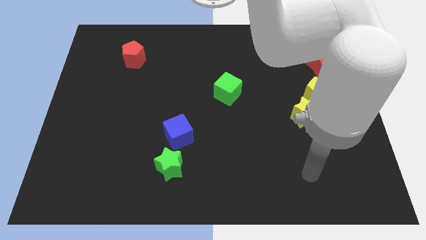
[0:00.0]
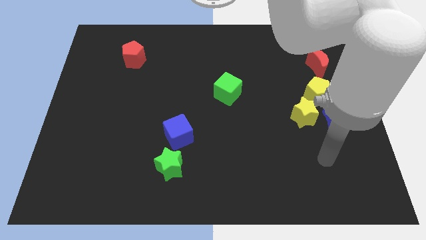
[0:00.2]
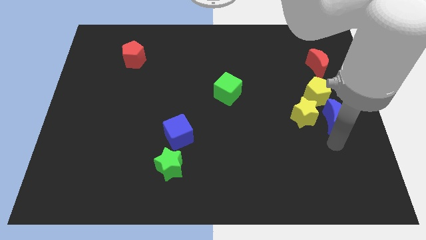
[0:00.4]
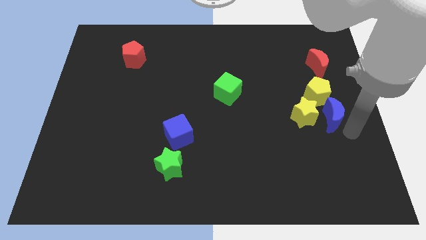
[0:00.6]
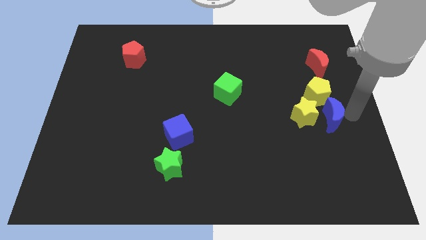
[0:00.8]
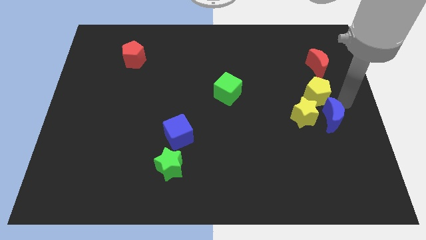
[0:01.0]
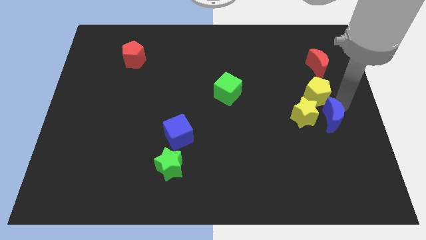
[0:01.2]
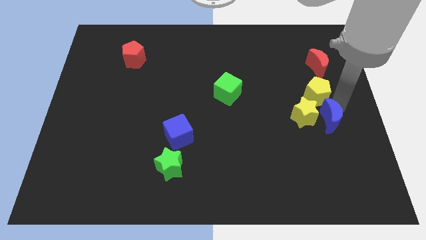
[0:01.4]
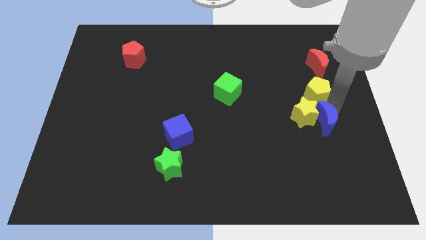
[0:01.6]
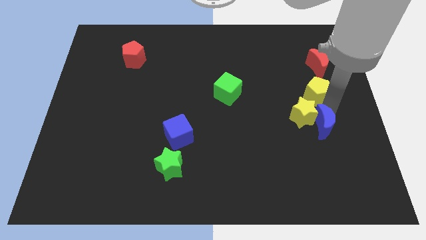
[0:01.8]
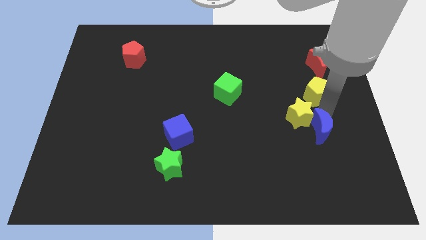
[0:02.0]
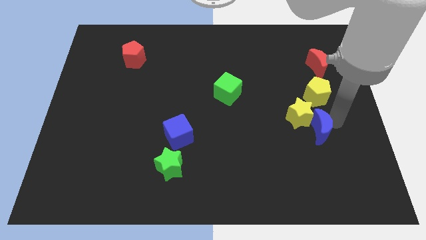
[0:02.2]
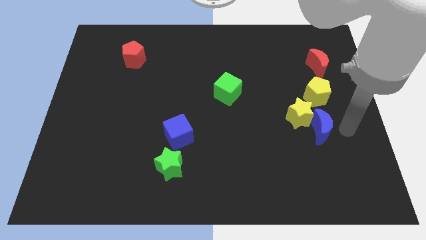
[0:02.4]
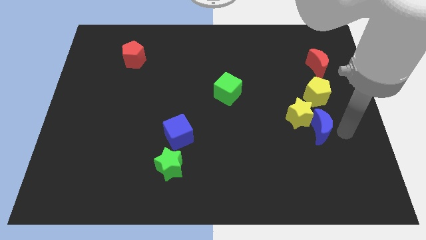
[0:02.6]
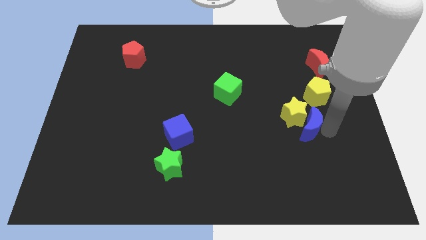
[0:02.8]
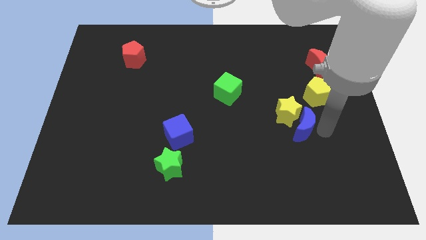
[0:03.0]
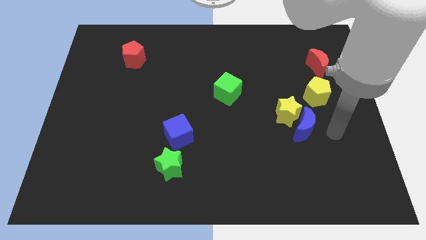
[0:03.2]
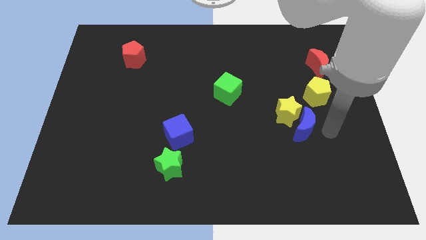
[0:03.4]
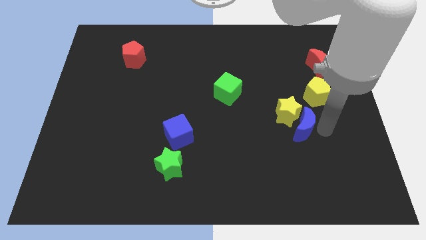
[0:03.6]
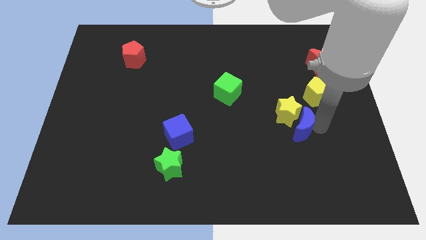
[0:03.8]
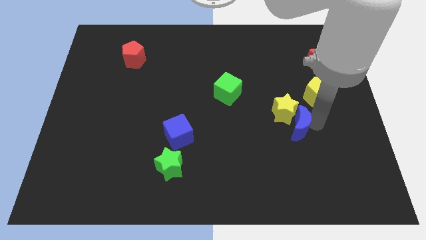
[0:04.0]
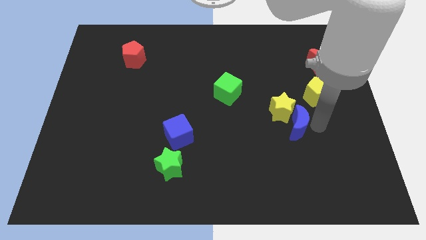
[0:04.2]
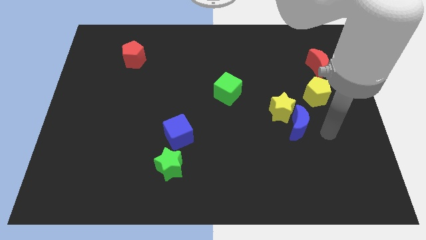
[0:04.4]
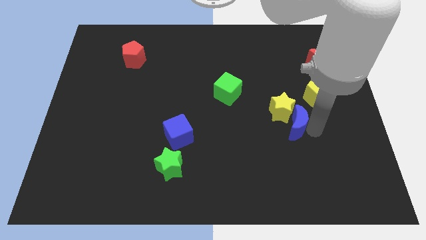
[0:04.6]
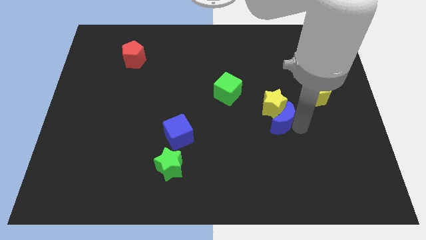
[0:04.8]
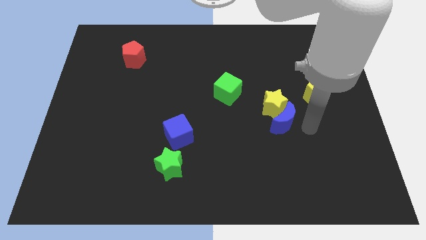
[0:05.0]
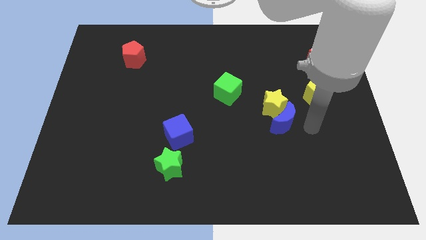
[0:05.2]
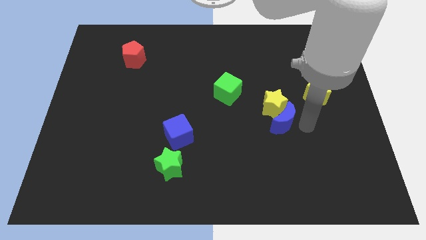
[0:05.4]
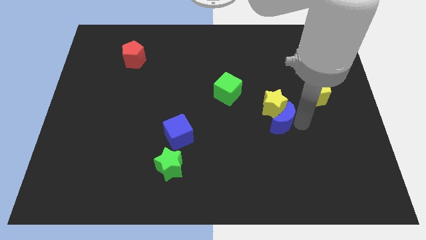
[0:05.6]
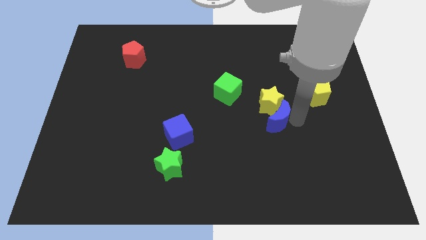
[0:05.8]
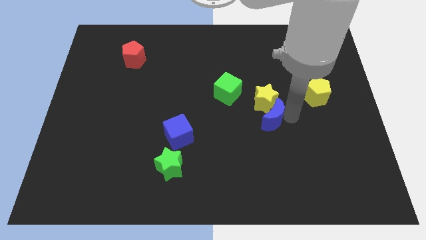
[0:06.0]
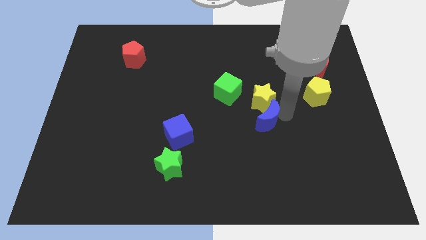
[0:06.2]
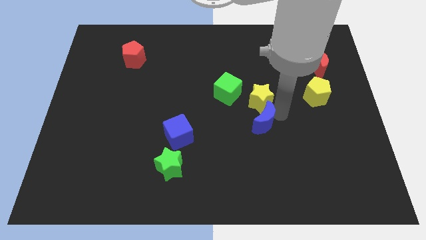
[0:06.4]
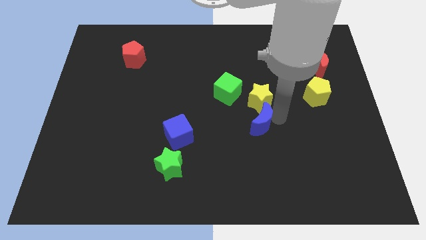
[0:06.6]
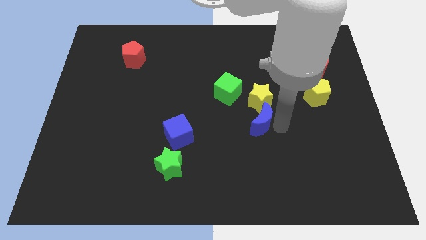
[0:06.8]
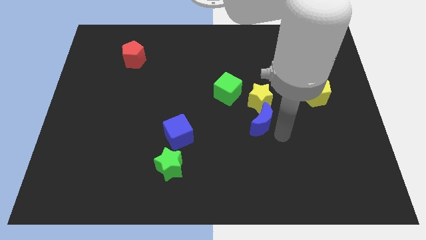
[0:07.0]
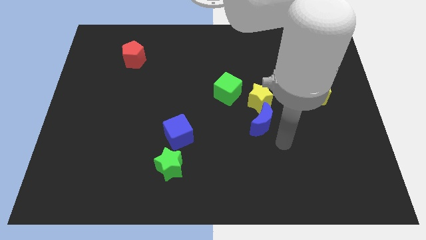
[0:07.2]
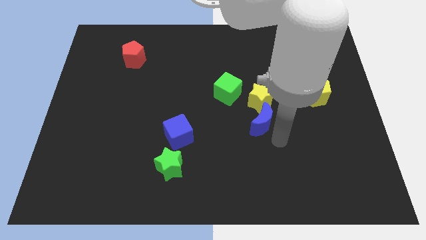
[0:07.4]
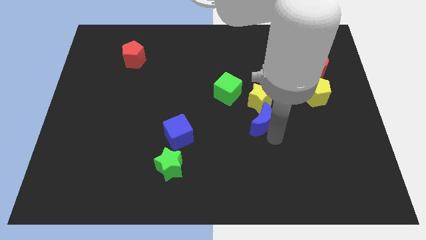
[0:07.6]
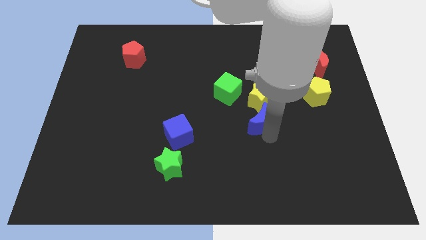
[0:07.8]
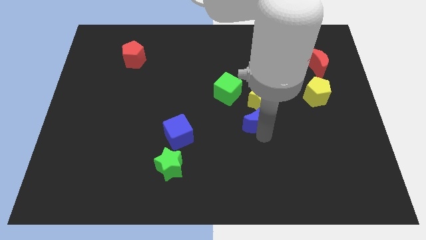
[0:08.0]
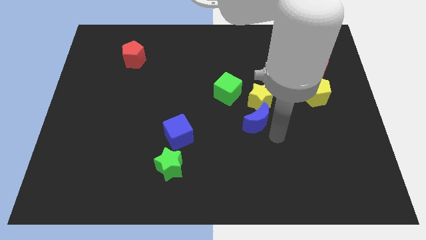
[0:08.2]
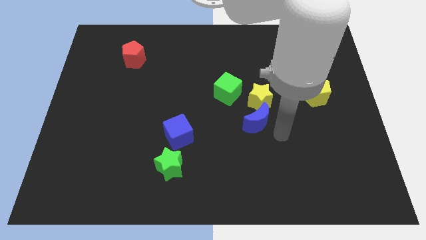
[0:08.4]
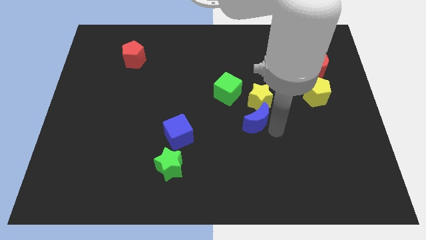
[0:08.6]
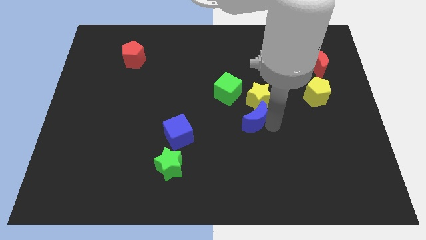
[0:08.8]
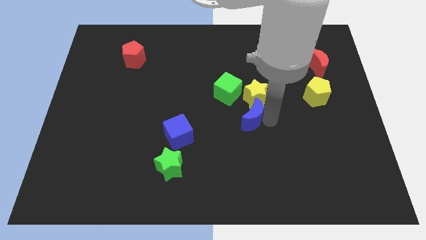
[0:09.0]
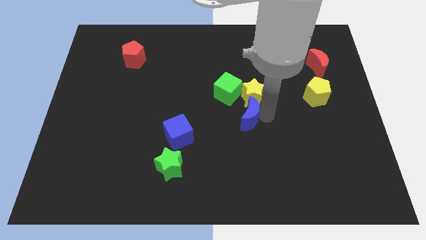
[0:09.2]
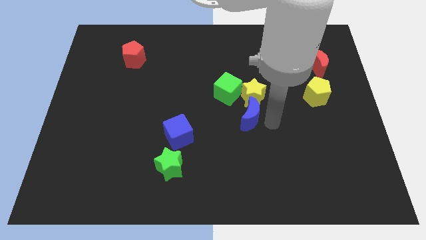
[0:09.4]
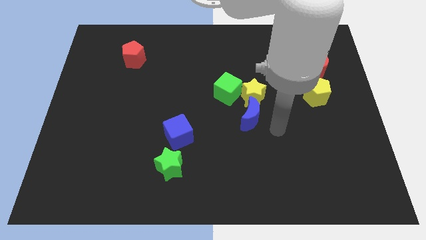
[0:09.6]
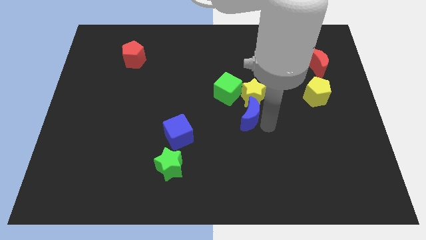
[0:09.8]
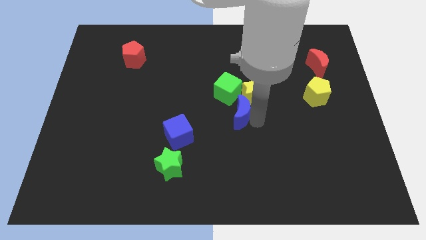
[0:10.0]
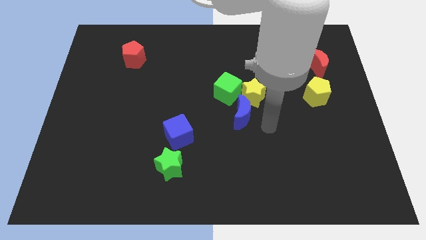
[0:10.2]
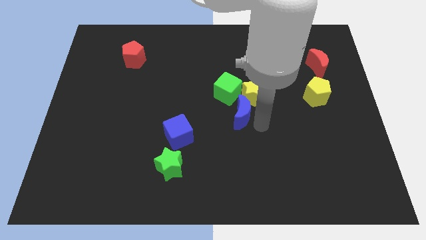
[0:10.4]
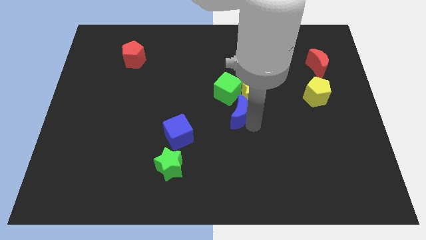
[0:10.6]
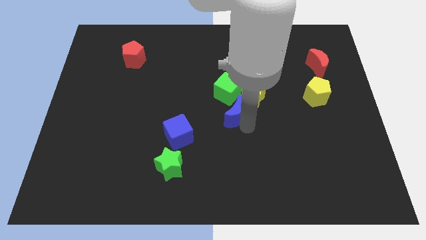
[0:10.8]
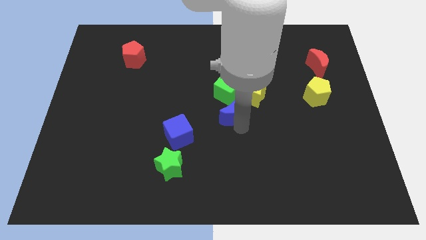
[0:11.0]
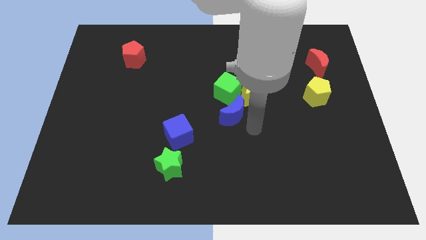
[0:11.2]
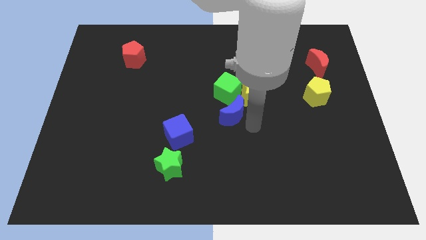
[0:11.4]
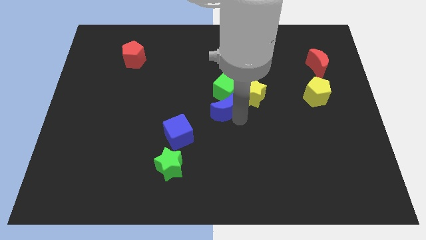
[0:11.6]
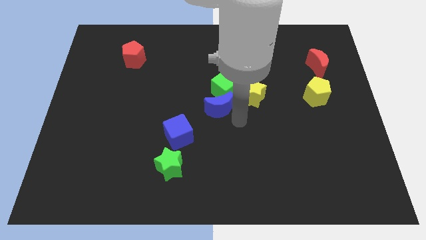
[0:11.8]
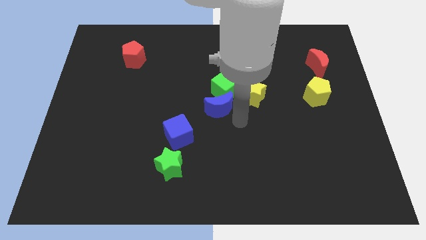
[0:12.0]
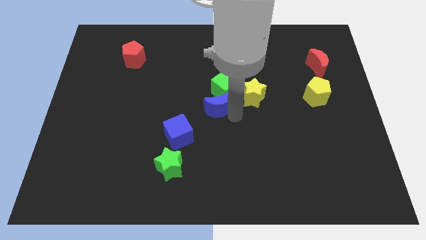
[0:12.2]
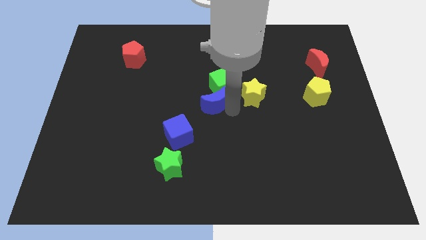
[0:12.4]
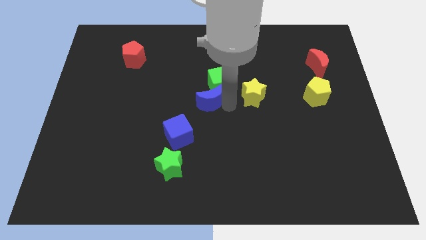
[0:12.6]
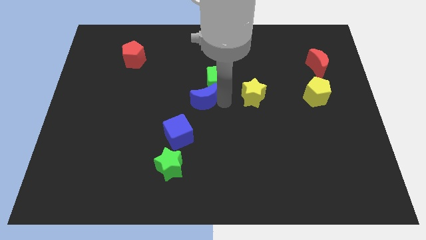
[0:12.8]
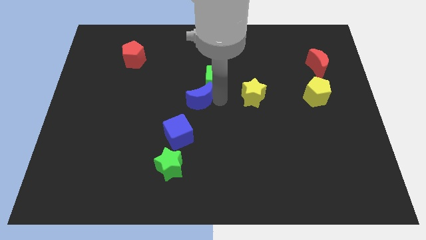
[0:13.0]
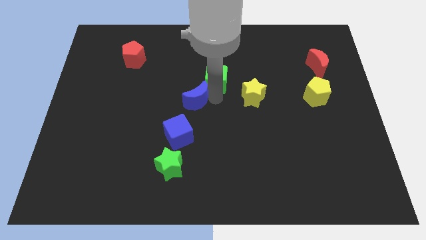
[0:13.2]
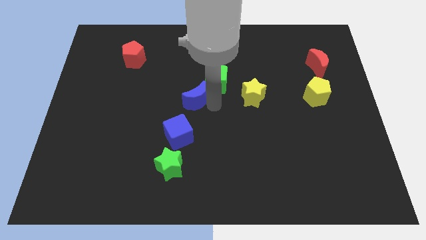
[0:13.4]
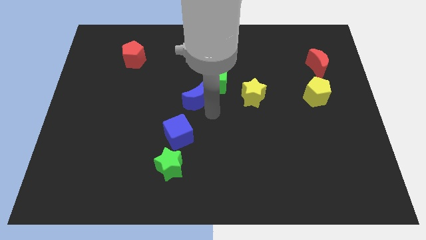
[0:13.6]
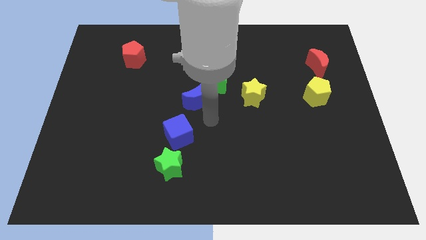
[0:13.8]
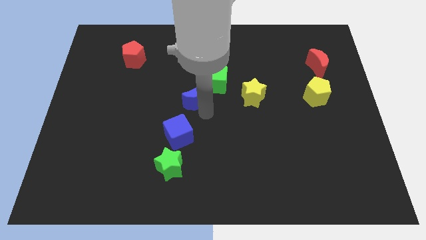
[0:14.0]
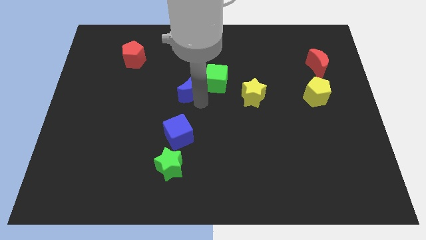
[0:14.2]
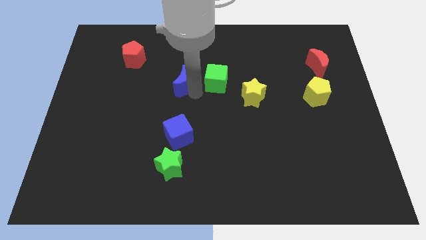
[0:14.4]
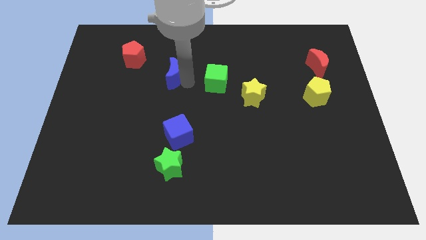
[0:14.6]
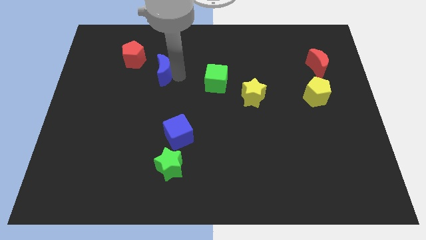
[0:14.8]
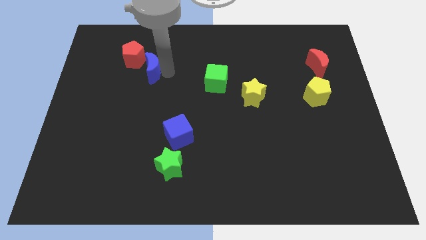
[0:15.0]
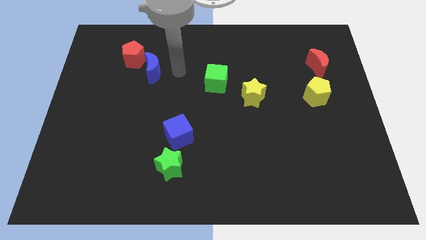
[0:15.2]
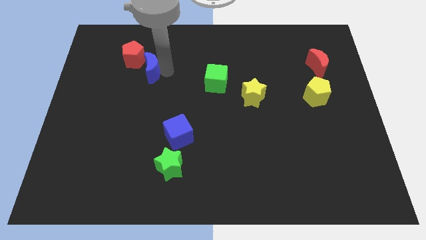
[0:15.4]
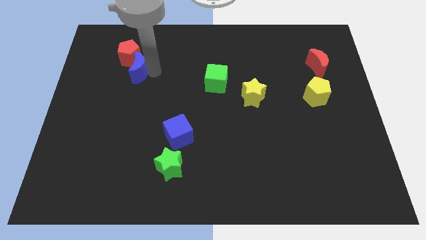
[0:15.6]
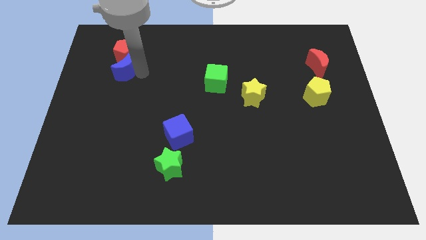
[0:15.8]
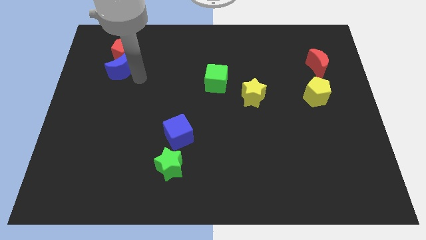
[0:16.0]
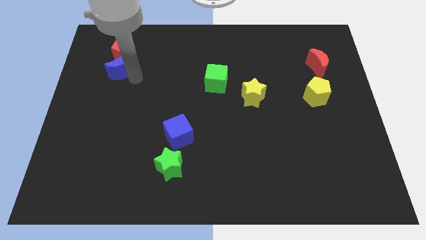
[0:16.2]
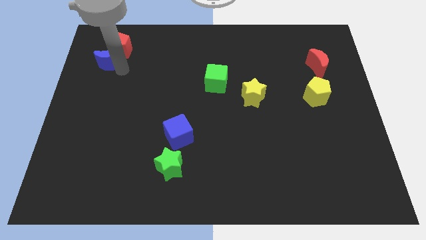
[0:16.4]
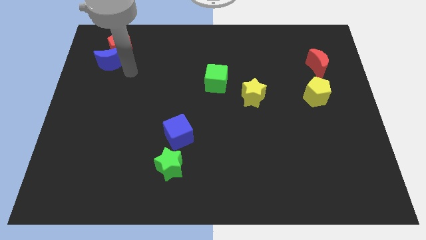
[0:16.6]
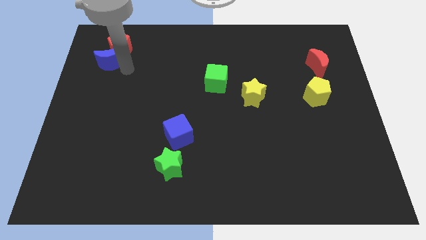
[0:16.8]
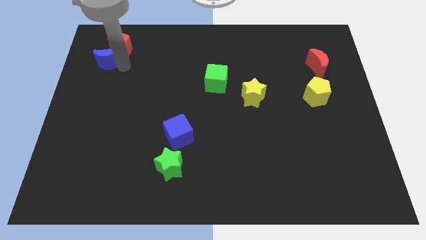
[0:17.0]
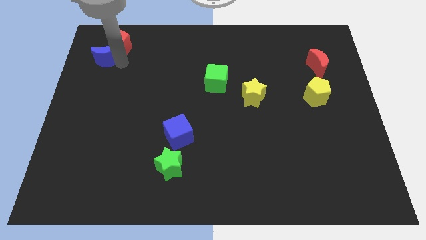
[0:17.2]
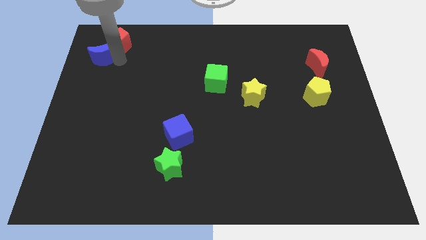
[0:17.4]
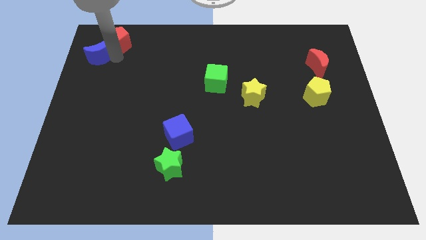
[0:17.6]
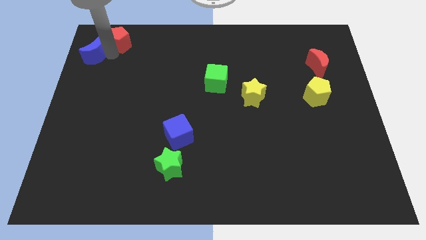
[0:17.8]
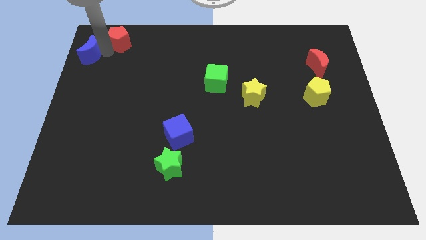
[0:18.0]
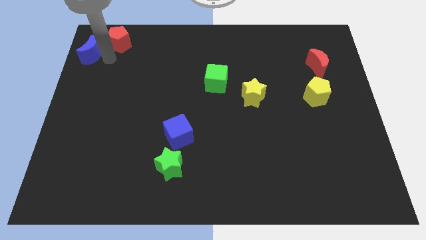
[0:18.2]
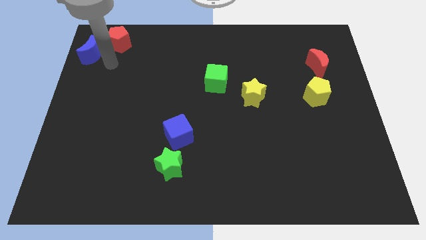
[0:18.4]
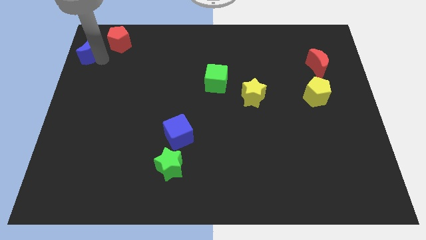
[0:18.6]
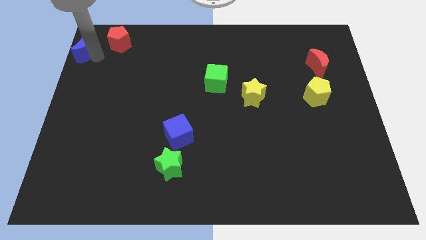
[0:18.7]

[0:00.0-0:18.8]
put the blue moon to the upper left corner
